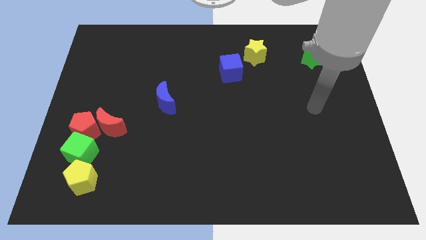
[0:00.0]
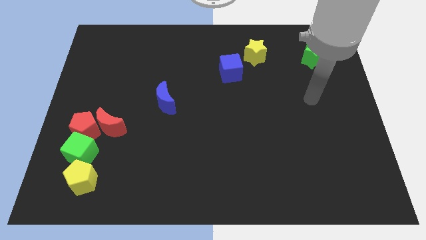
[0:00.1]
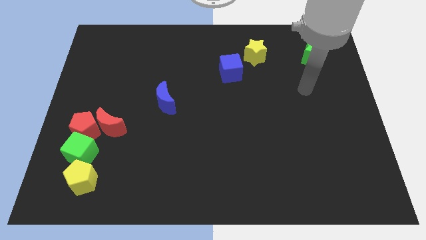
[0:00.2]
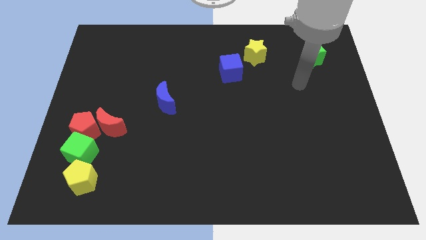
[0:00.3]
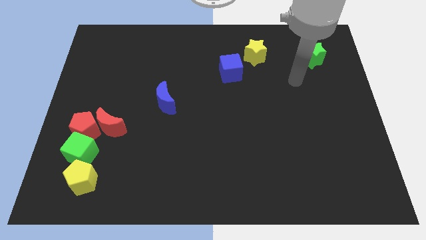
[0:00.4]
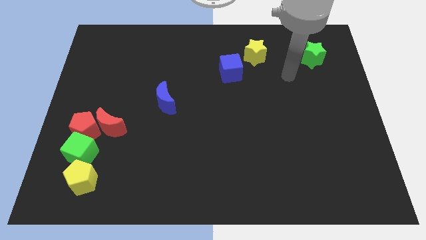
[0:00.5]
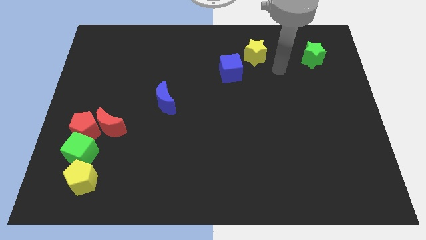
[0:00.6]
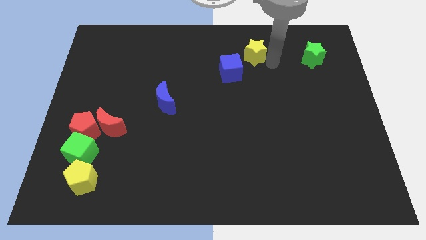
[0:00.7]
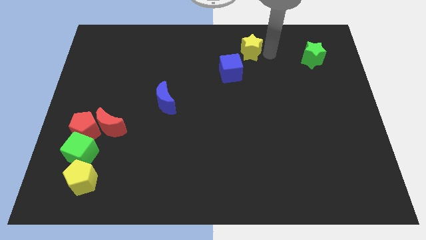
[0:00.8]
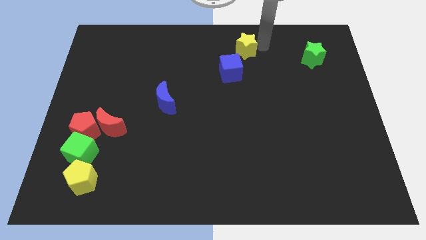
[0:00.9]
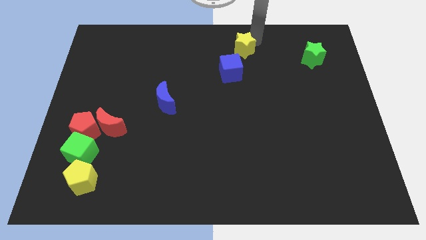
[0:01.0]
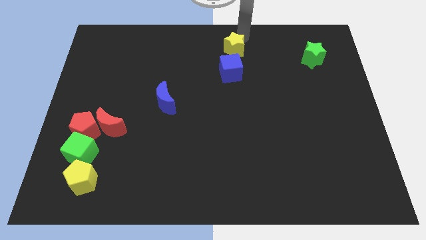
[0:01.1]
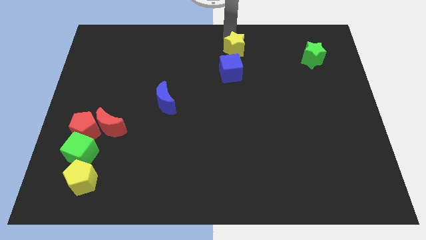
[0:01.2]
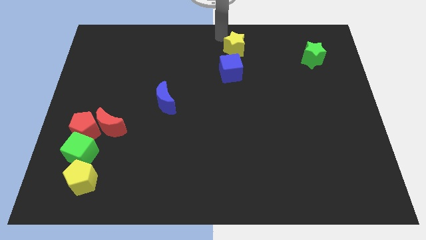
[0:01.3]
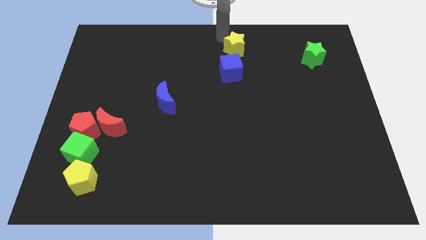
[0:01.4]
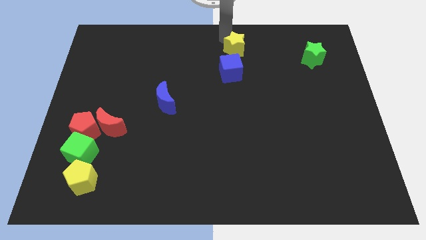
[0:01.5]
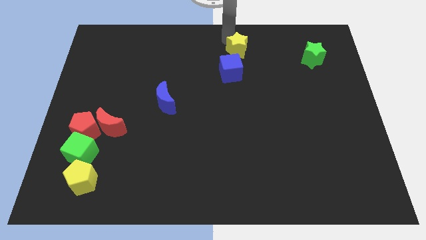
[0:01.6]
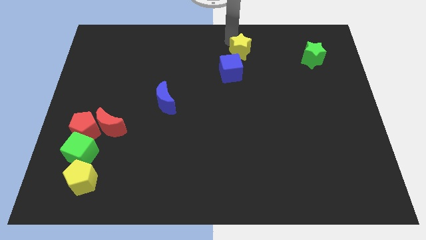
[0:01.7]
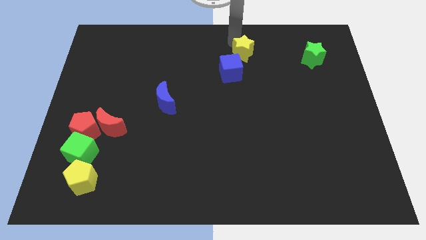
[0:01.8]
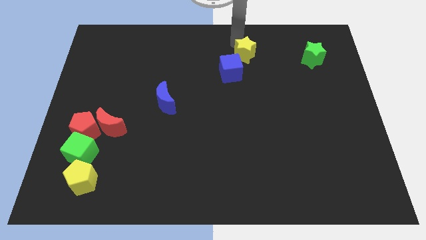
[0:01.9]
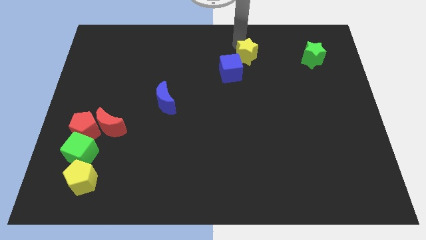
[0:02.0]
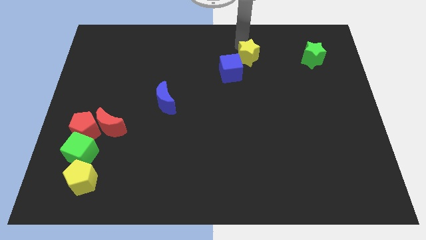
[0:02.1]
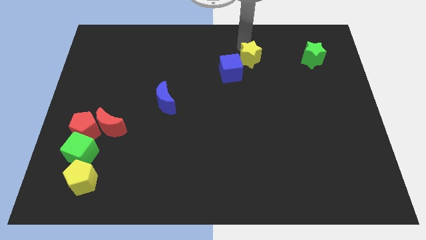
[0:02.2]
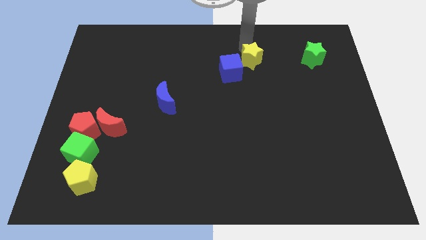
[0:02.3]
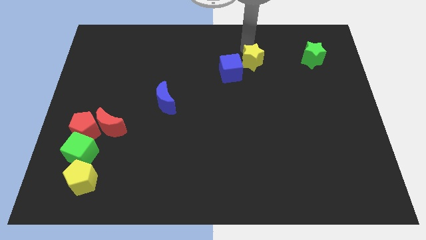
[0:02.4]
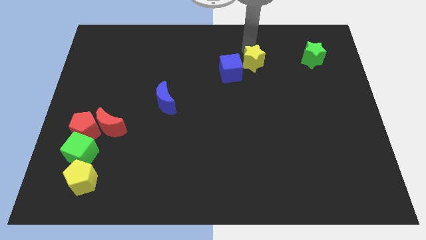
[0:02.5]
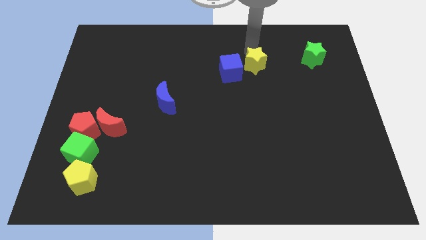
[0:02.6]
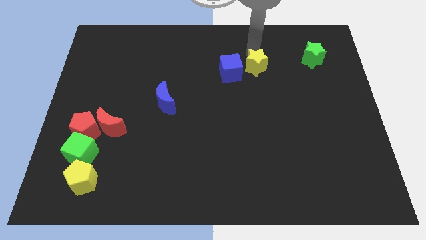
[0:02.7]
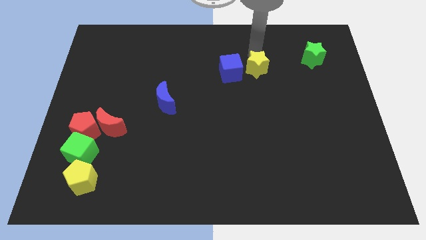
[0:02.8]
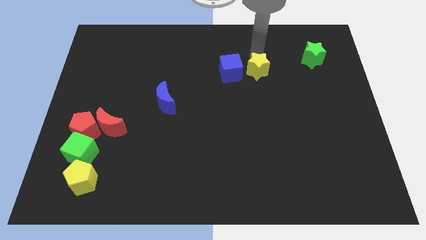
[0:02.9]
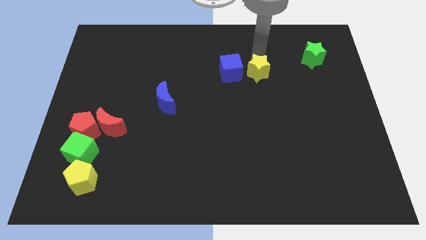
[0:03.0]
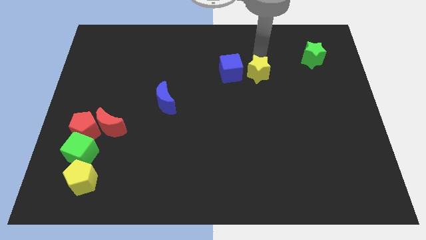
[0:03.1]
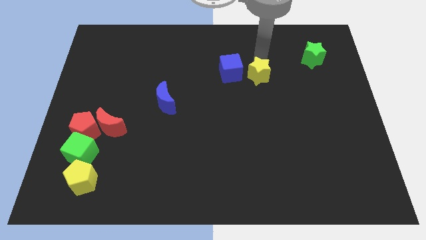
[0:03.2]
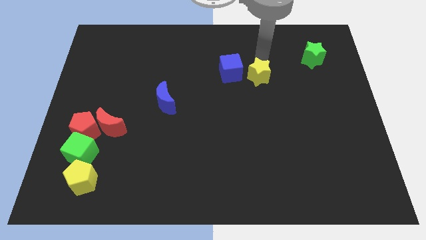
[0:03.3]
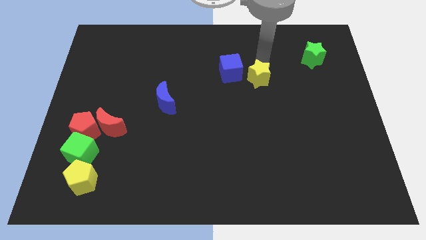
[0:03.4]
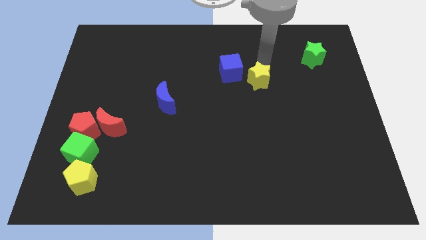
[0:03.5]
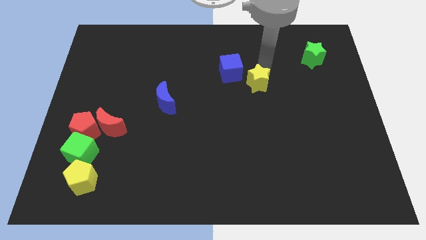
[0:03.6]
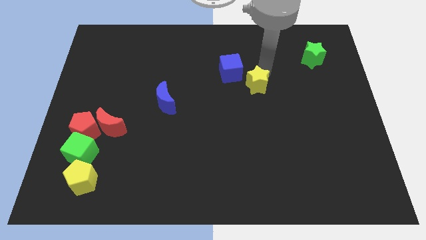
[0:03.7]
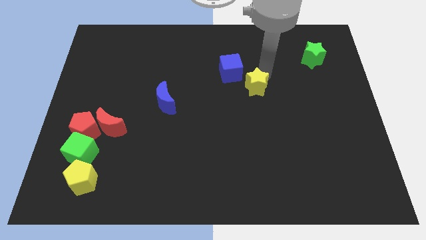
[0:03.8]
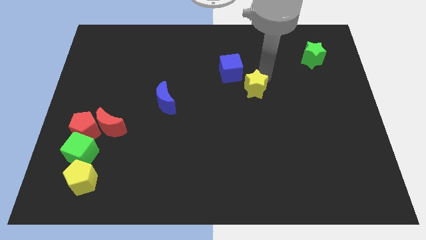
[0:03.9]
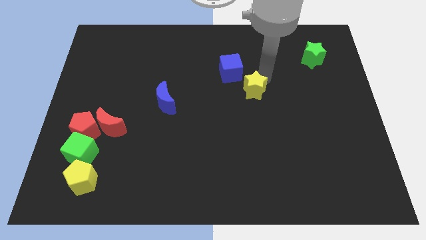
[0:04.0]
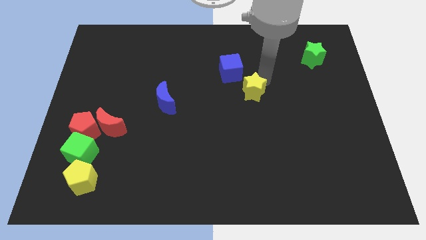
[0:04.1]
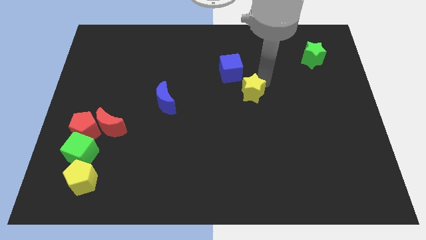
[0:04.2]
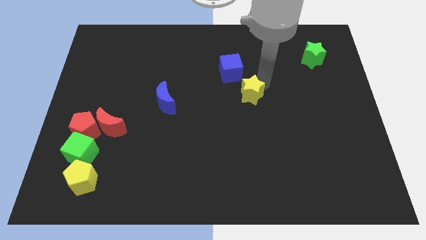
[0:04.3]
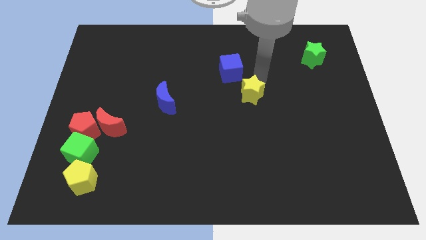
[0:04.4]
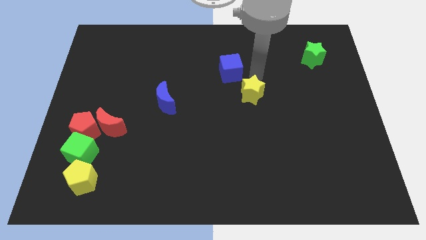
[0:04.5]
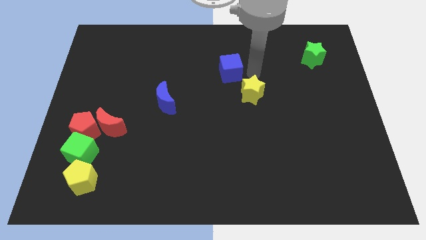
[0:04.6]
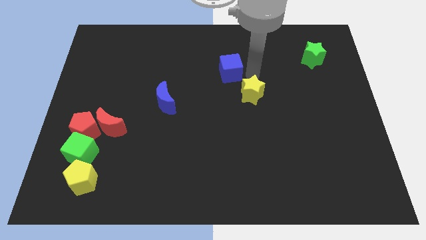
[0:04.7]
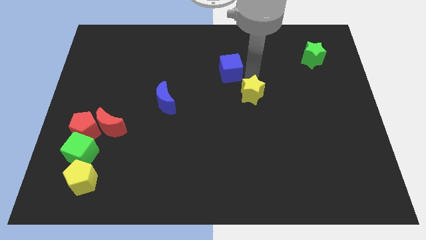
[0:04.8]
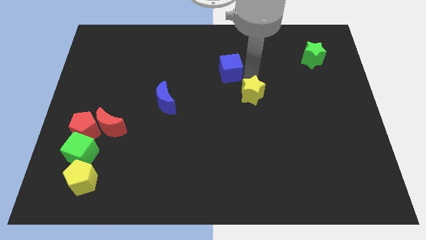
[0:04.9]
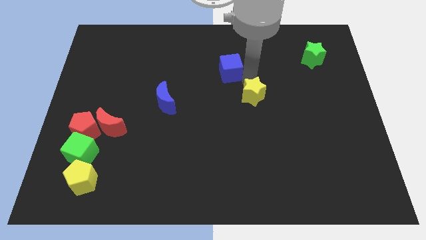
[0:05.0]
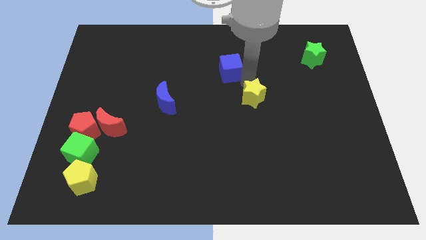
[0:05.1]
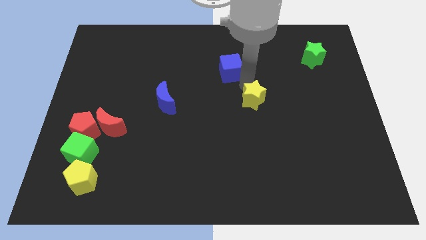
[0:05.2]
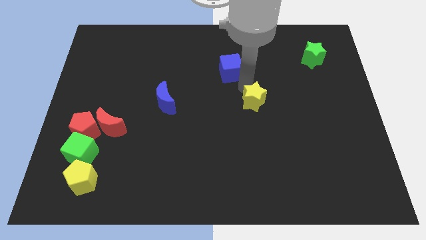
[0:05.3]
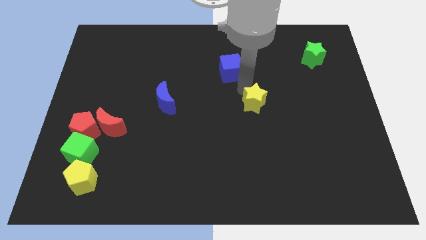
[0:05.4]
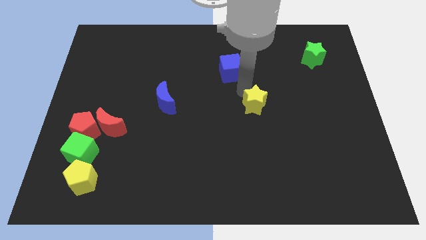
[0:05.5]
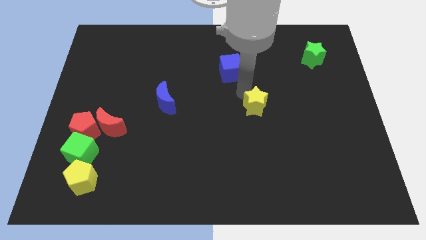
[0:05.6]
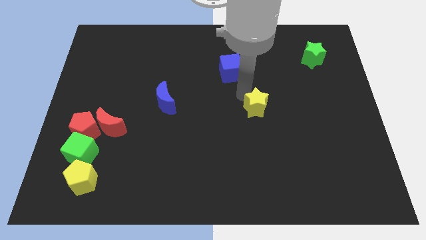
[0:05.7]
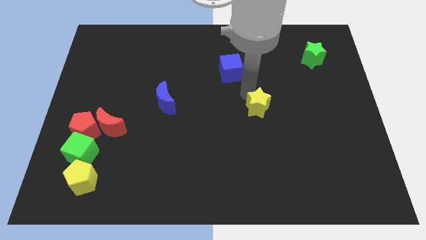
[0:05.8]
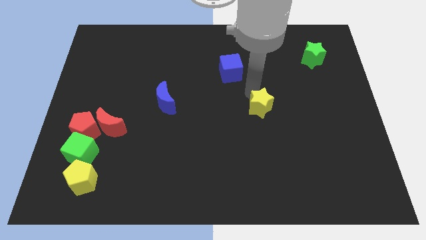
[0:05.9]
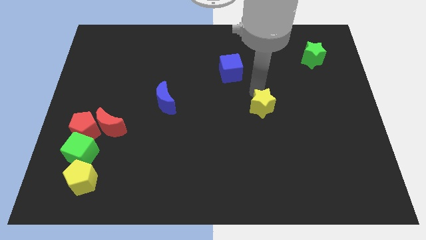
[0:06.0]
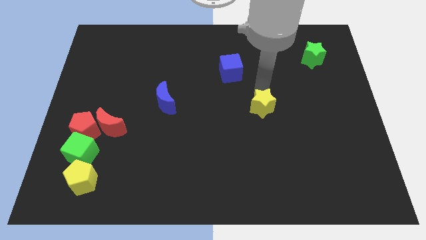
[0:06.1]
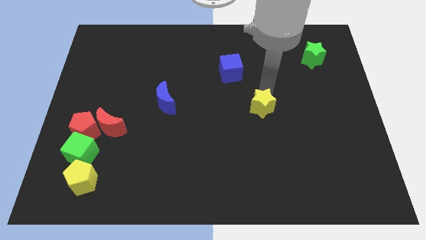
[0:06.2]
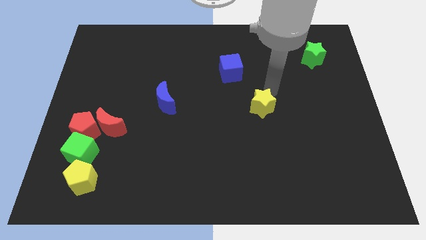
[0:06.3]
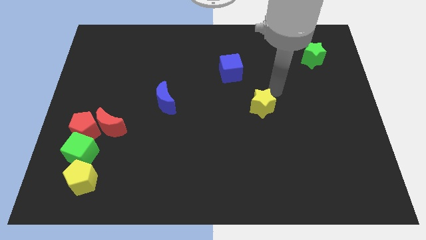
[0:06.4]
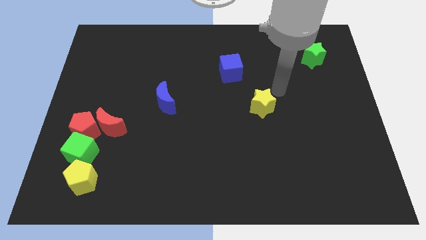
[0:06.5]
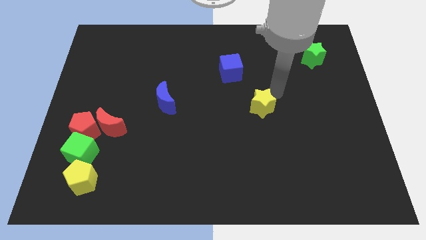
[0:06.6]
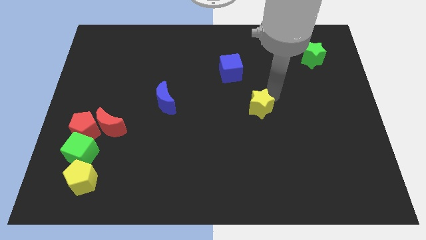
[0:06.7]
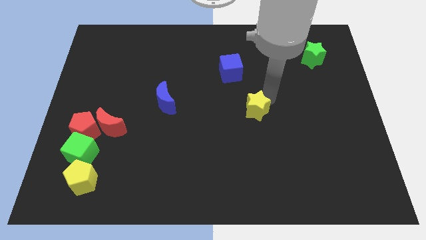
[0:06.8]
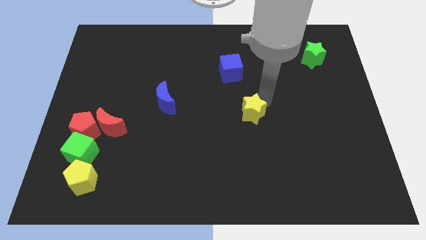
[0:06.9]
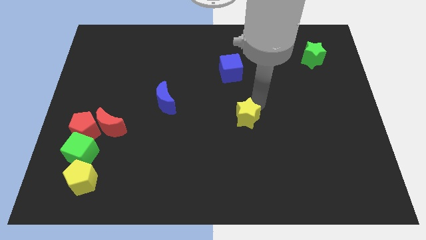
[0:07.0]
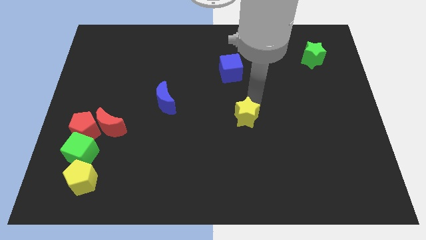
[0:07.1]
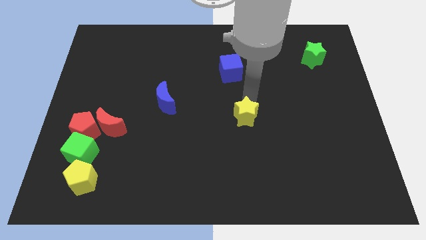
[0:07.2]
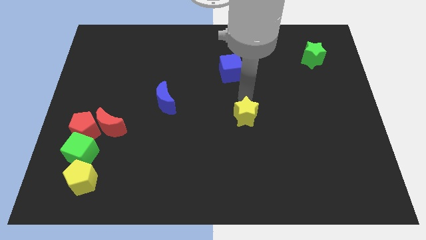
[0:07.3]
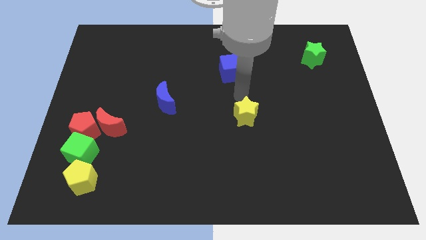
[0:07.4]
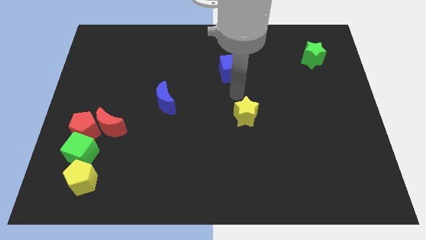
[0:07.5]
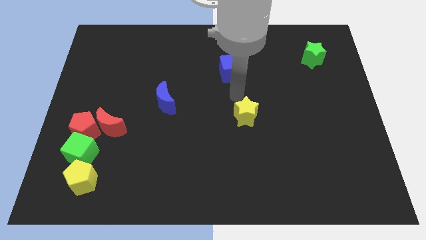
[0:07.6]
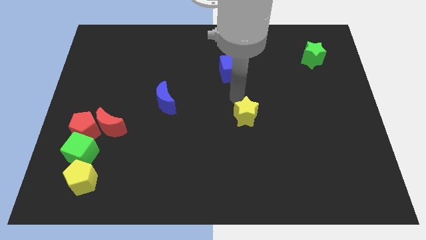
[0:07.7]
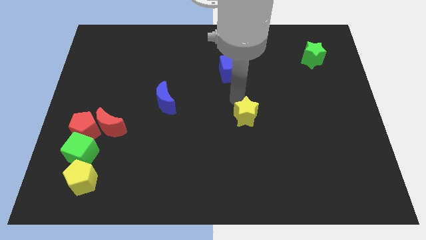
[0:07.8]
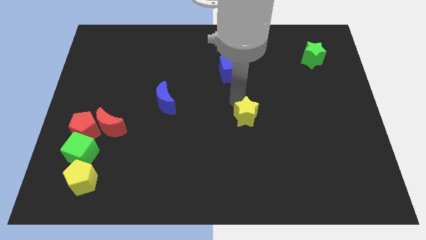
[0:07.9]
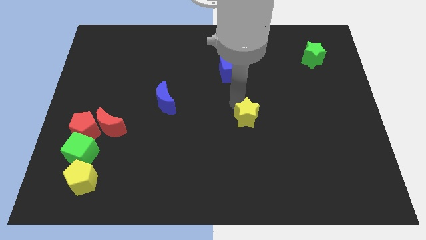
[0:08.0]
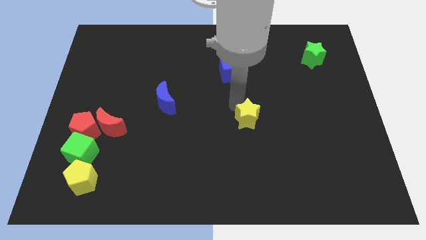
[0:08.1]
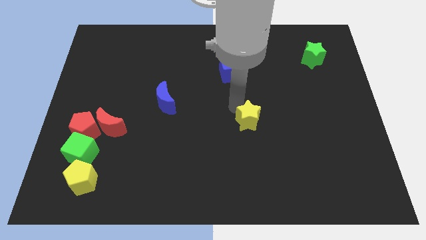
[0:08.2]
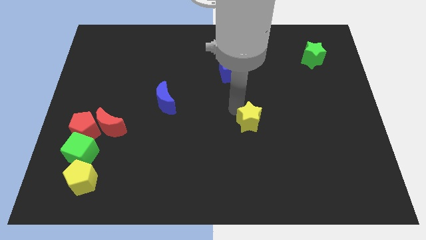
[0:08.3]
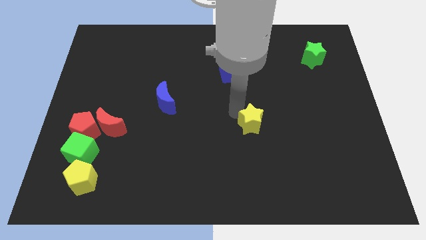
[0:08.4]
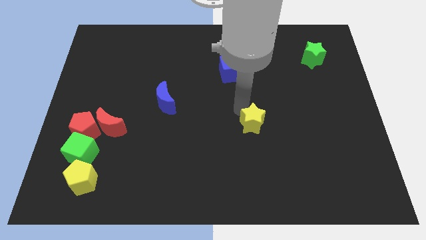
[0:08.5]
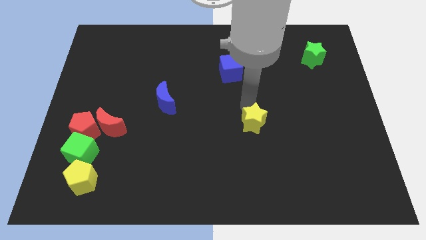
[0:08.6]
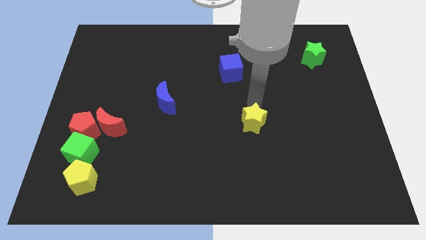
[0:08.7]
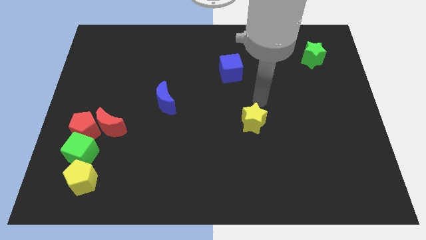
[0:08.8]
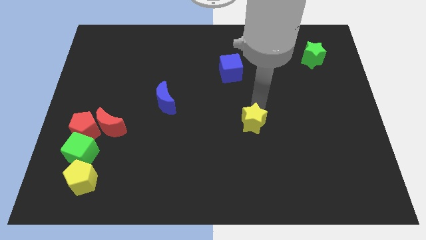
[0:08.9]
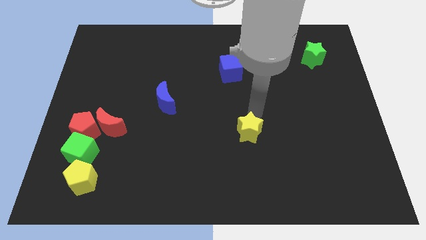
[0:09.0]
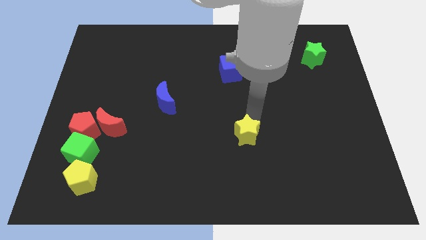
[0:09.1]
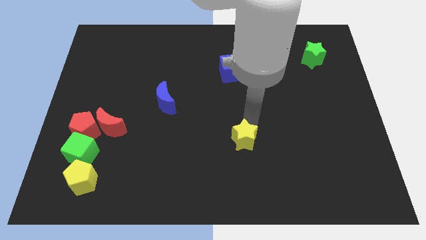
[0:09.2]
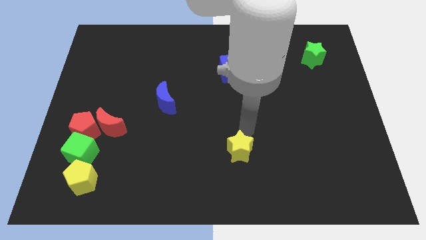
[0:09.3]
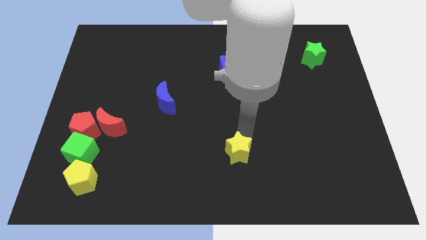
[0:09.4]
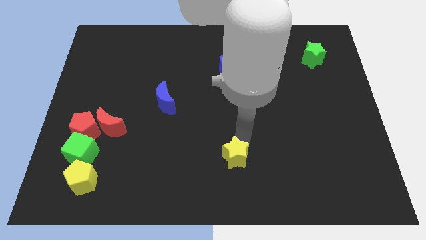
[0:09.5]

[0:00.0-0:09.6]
move the yellow star to the bottom
